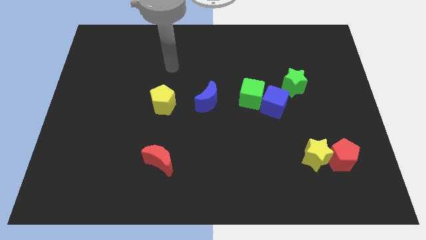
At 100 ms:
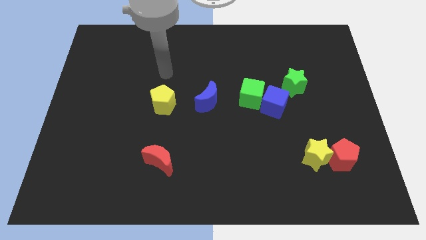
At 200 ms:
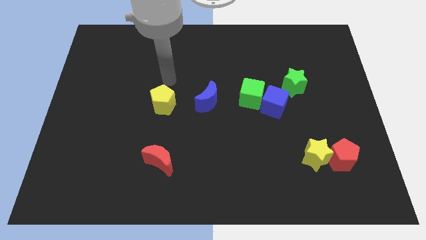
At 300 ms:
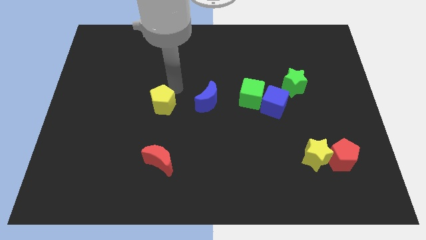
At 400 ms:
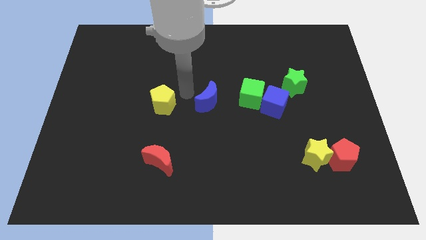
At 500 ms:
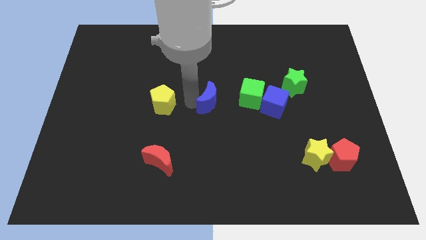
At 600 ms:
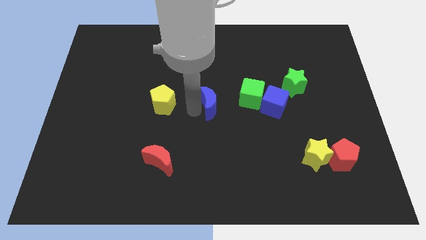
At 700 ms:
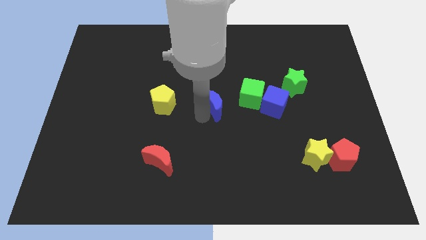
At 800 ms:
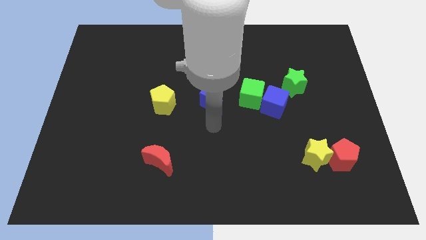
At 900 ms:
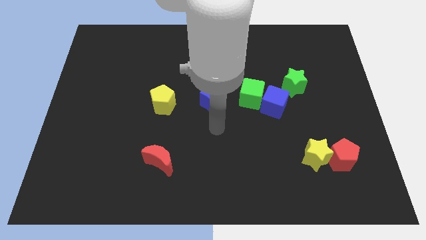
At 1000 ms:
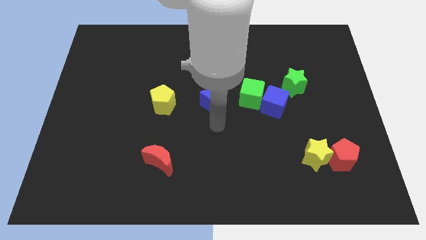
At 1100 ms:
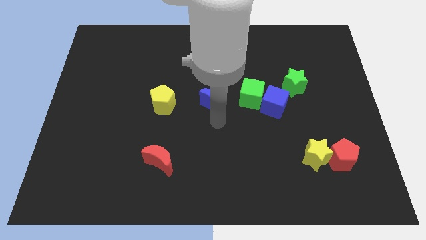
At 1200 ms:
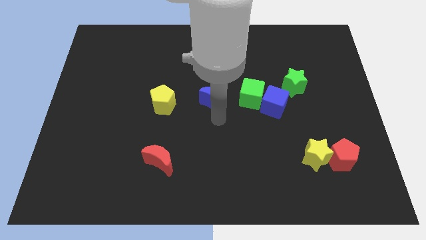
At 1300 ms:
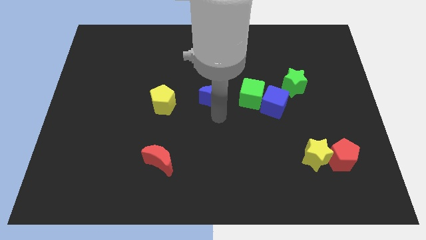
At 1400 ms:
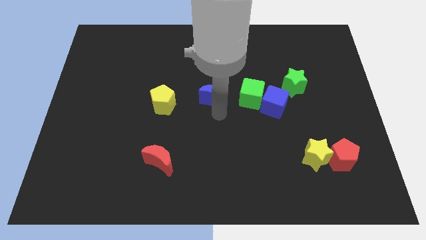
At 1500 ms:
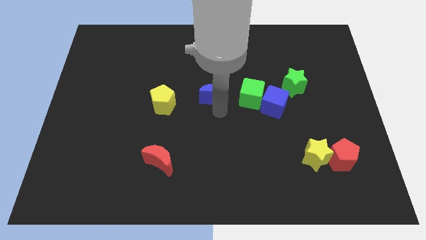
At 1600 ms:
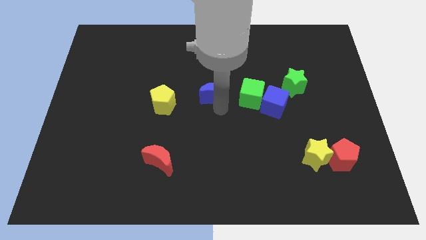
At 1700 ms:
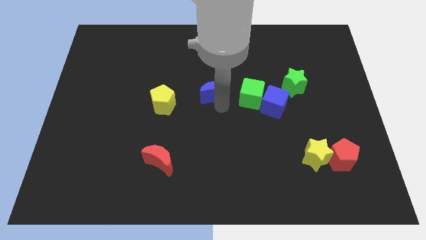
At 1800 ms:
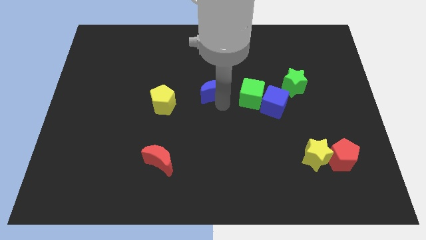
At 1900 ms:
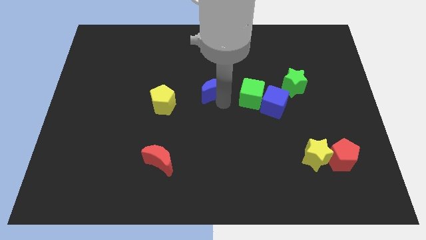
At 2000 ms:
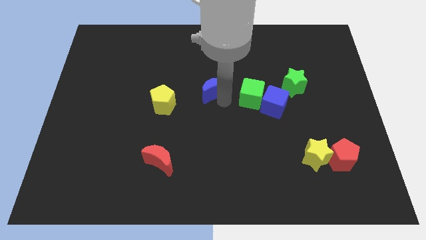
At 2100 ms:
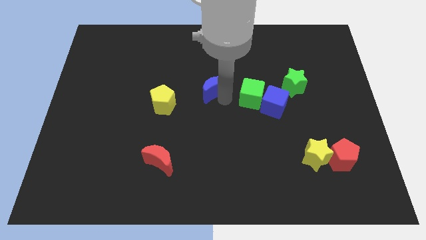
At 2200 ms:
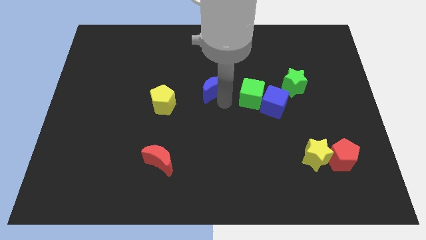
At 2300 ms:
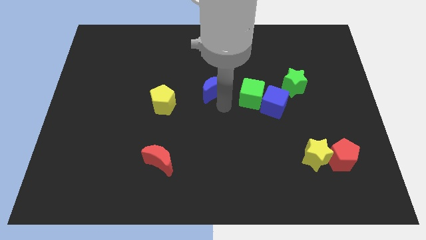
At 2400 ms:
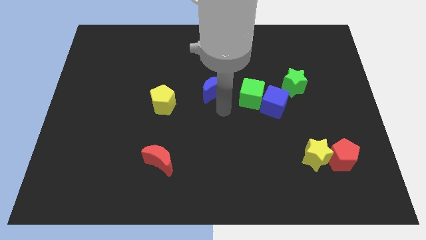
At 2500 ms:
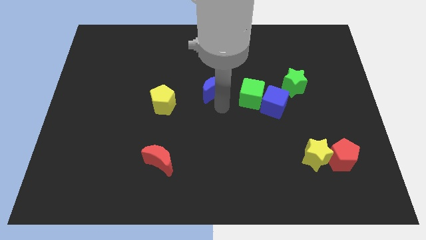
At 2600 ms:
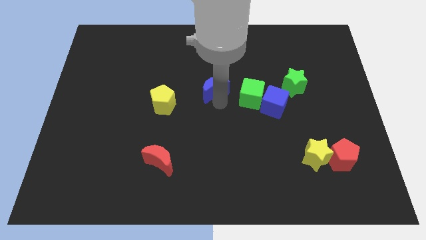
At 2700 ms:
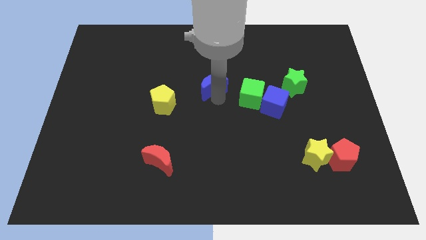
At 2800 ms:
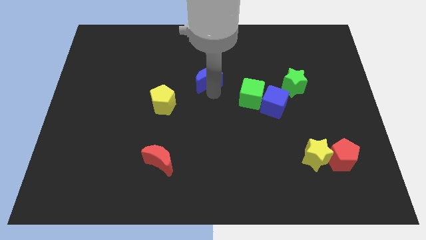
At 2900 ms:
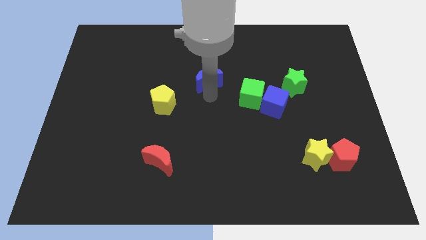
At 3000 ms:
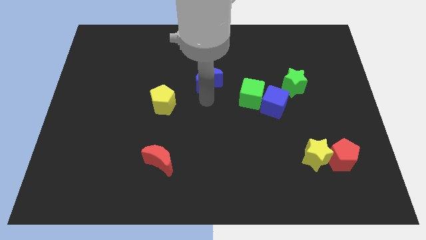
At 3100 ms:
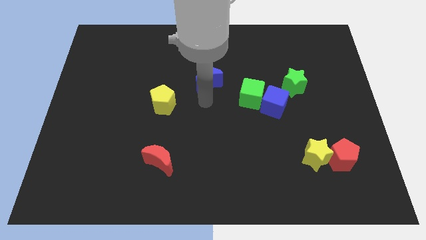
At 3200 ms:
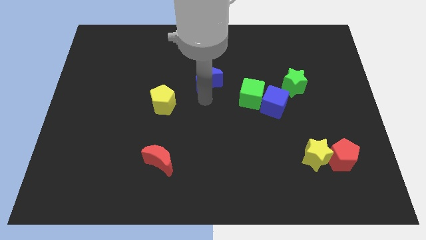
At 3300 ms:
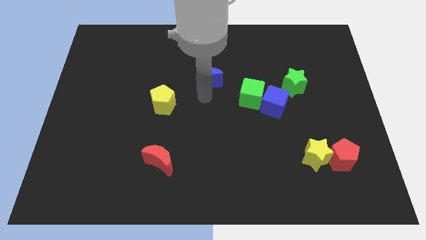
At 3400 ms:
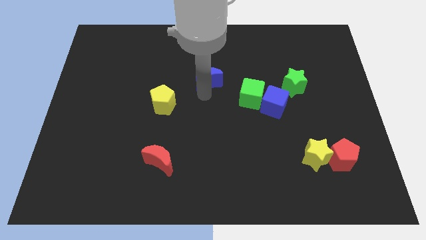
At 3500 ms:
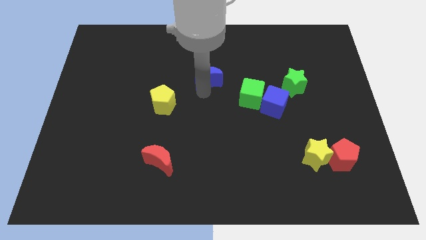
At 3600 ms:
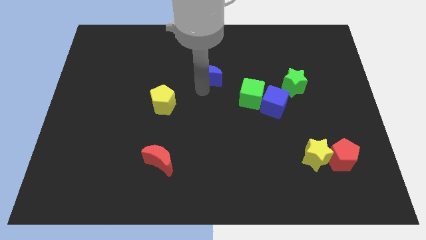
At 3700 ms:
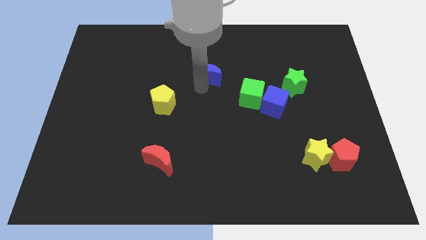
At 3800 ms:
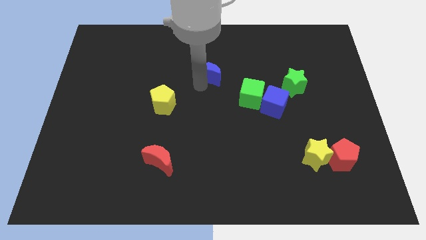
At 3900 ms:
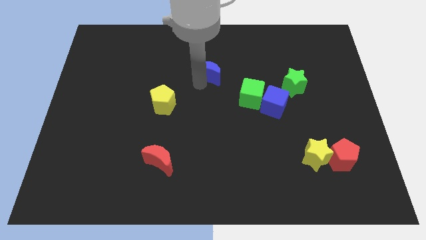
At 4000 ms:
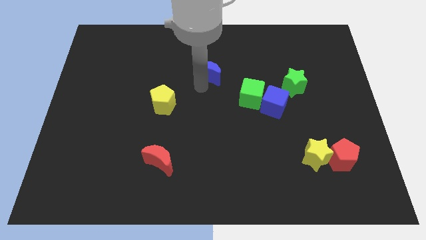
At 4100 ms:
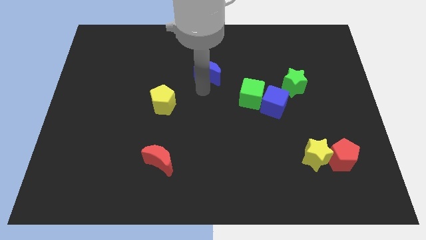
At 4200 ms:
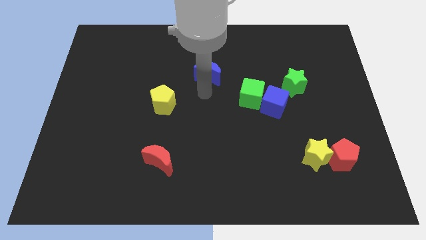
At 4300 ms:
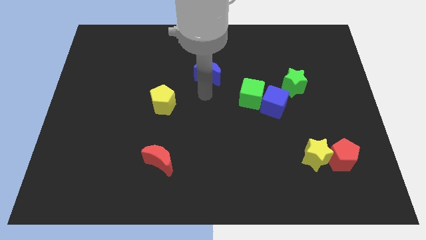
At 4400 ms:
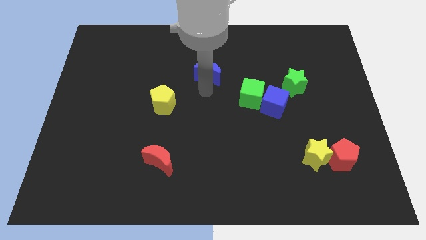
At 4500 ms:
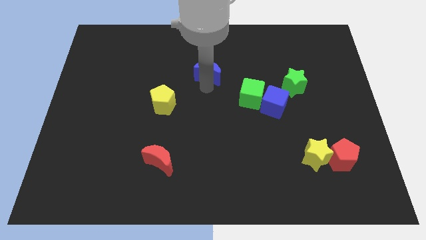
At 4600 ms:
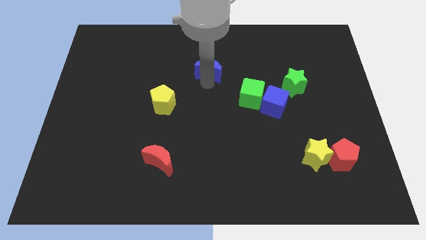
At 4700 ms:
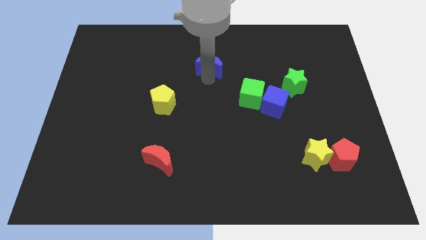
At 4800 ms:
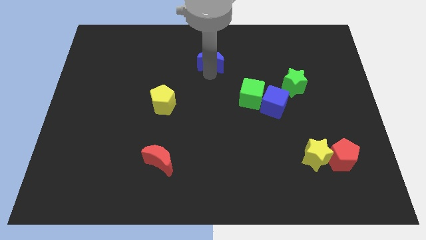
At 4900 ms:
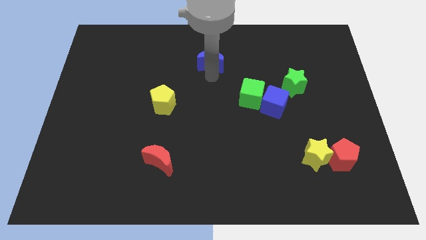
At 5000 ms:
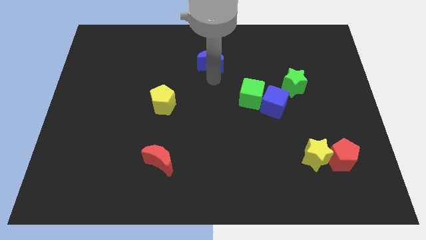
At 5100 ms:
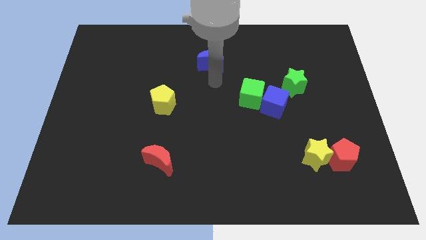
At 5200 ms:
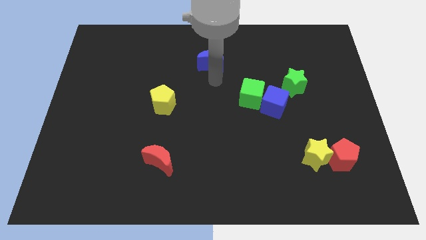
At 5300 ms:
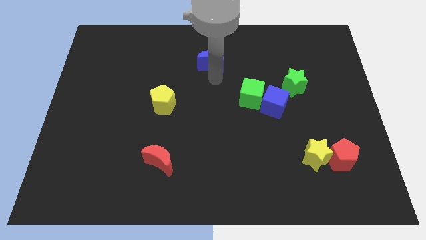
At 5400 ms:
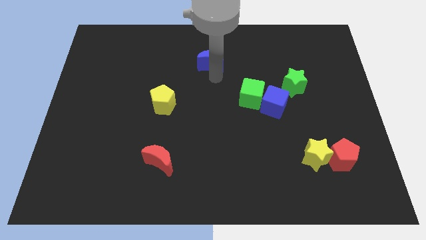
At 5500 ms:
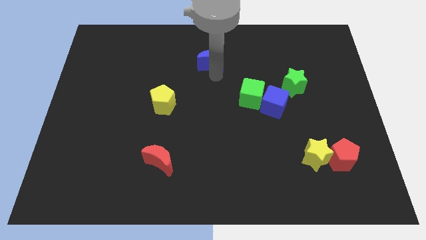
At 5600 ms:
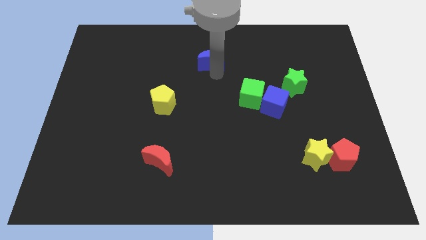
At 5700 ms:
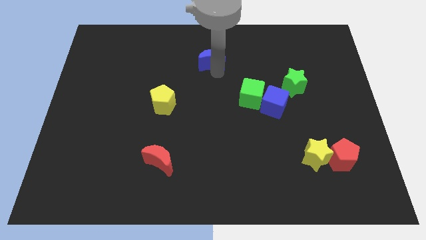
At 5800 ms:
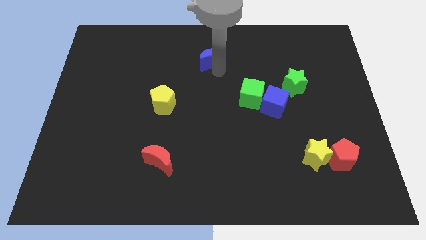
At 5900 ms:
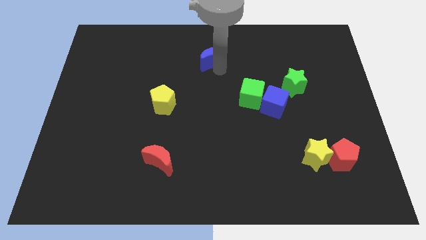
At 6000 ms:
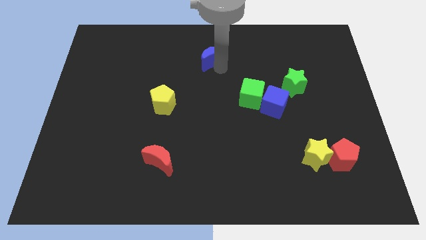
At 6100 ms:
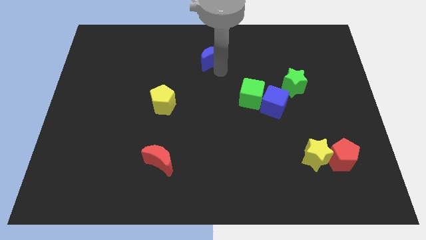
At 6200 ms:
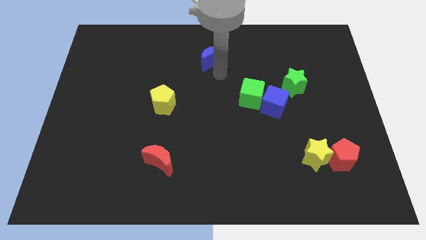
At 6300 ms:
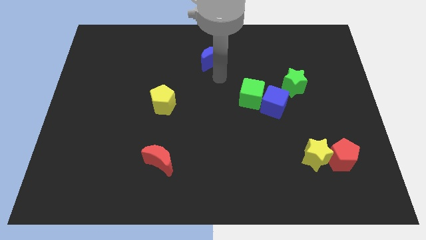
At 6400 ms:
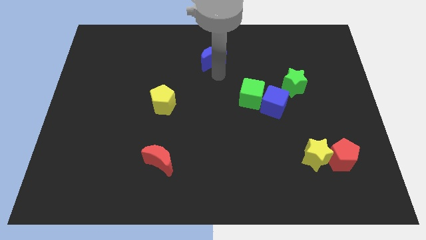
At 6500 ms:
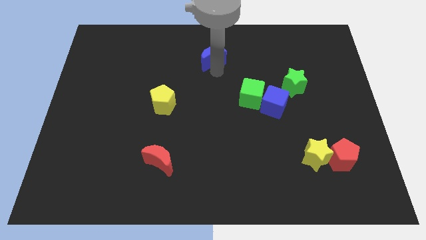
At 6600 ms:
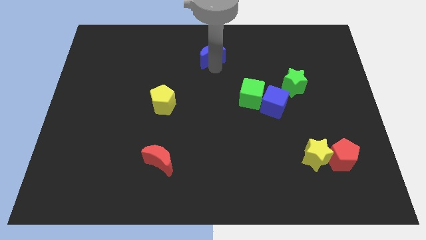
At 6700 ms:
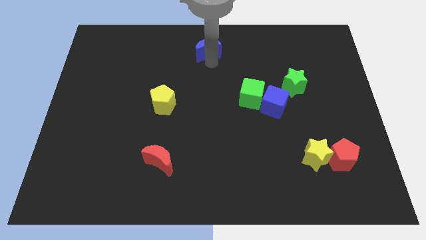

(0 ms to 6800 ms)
push the blue moon to the top side
